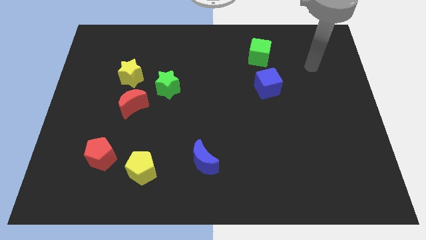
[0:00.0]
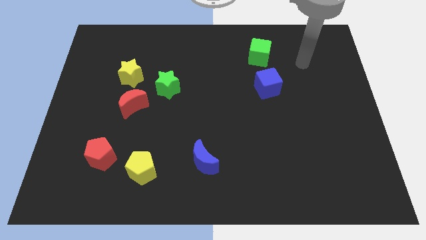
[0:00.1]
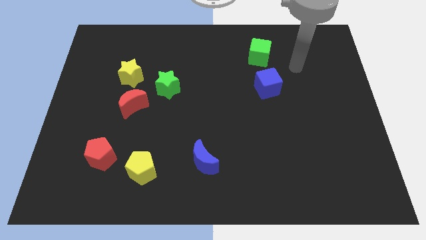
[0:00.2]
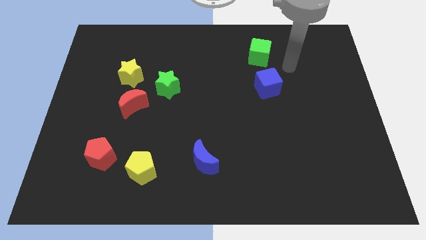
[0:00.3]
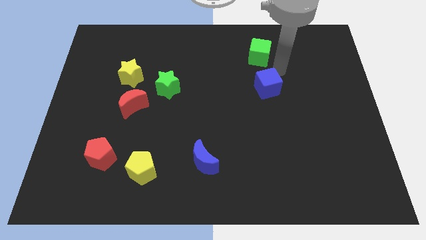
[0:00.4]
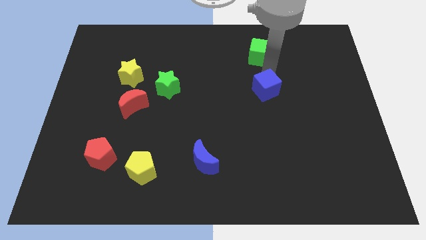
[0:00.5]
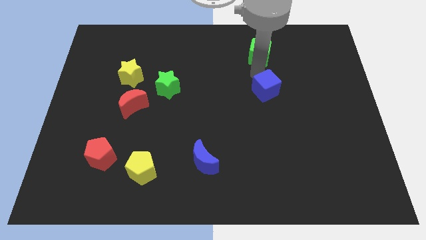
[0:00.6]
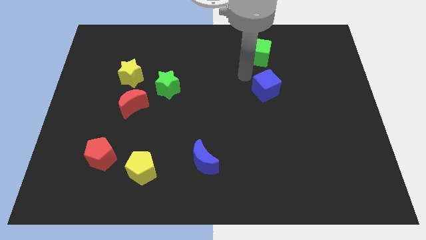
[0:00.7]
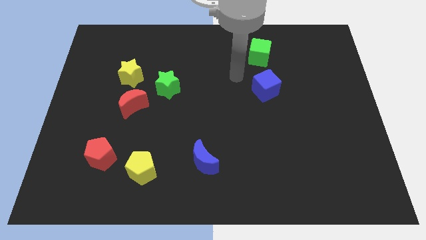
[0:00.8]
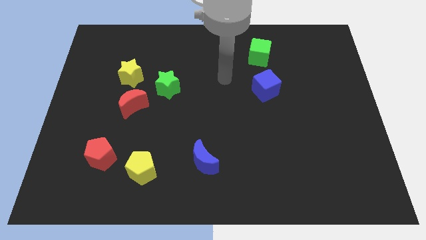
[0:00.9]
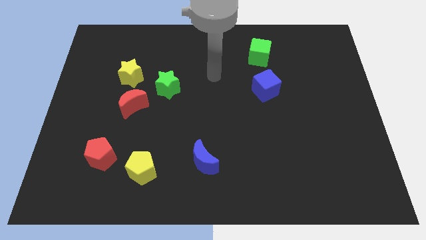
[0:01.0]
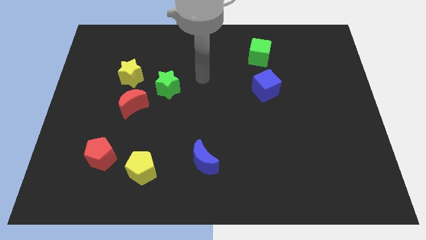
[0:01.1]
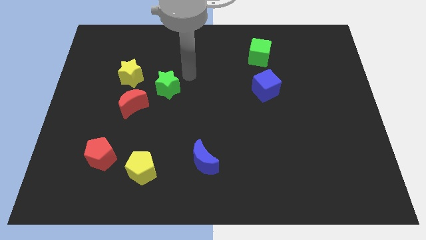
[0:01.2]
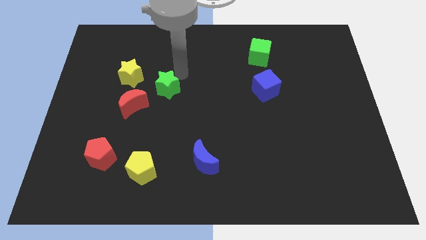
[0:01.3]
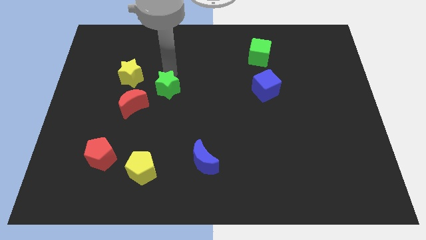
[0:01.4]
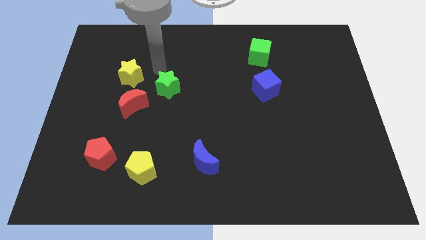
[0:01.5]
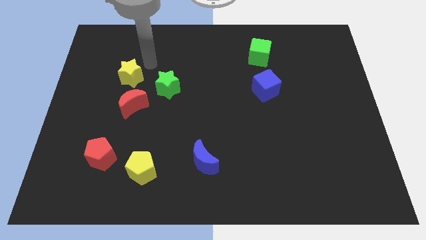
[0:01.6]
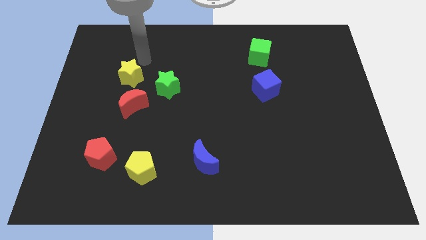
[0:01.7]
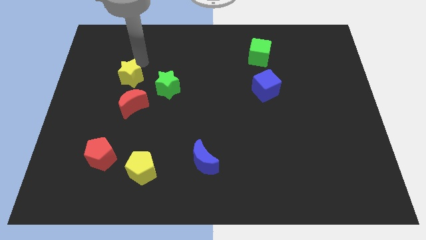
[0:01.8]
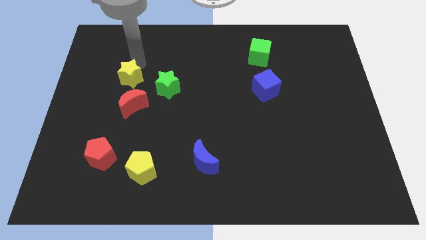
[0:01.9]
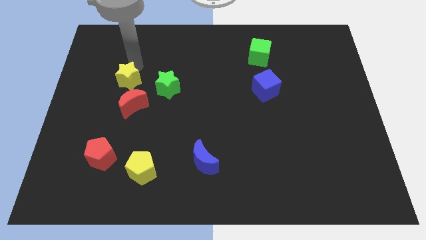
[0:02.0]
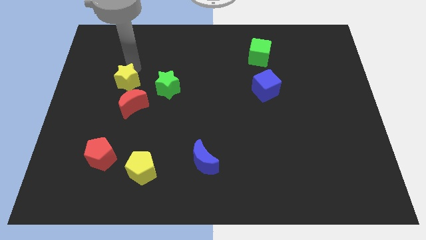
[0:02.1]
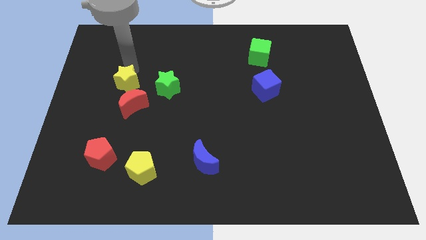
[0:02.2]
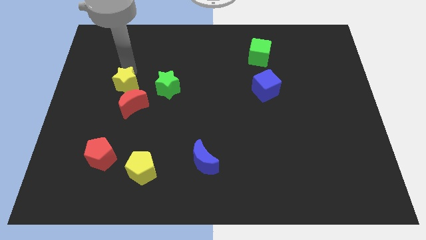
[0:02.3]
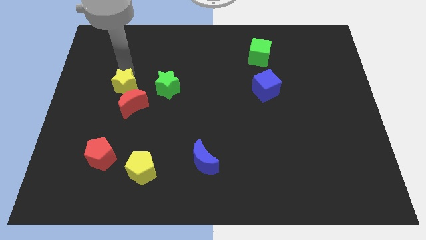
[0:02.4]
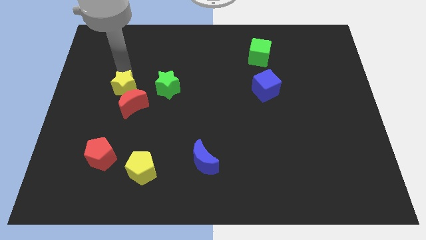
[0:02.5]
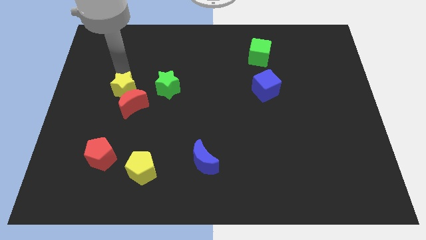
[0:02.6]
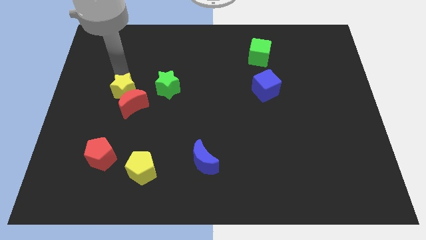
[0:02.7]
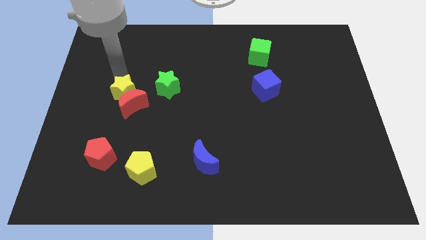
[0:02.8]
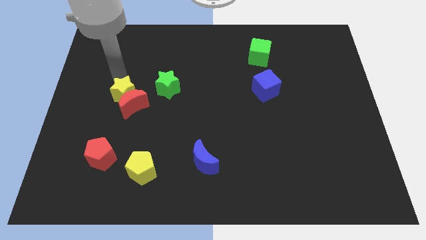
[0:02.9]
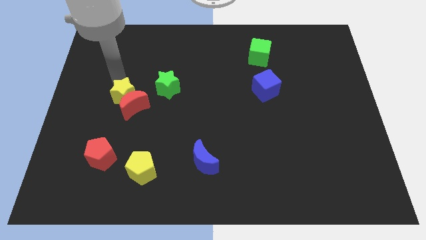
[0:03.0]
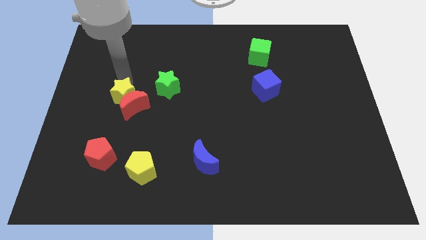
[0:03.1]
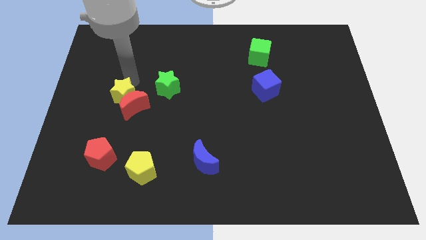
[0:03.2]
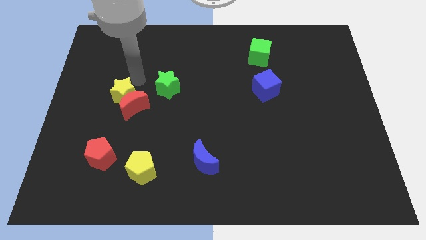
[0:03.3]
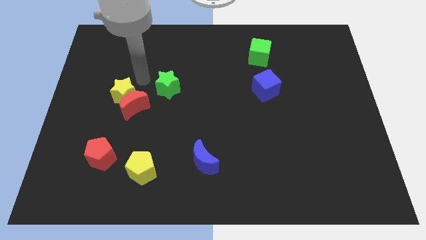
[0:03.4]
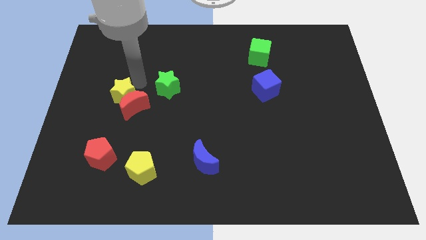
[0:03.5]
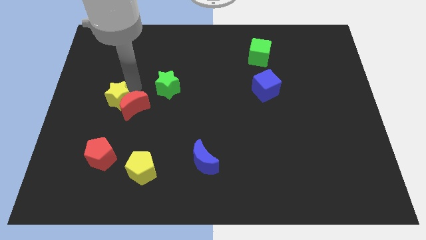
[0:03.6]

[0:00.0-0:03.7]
slightly slide the yellow star down

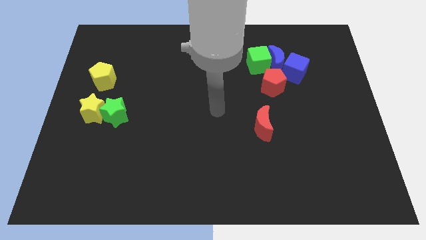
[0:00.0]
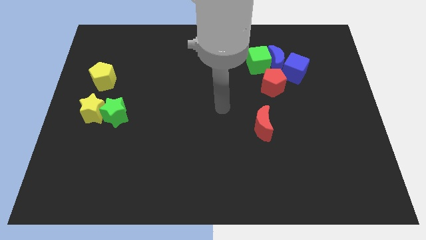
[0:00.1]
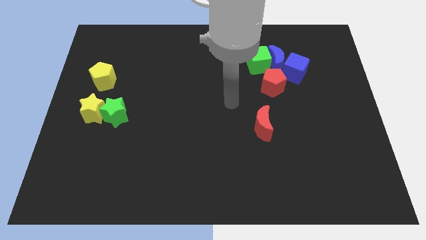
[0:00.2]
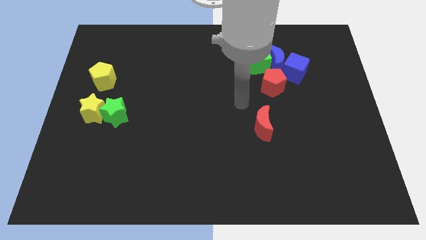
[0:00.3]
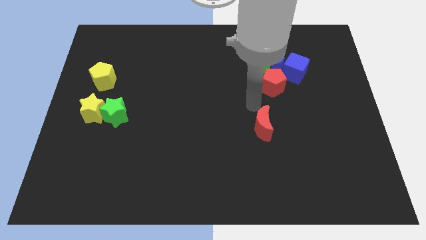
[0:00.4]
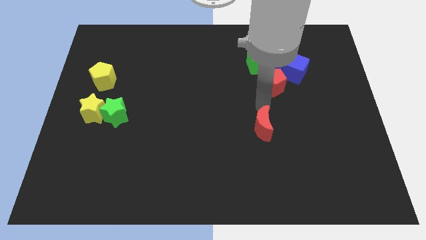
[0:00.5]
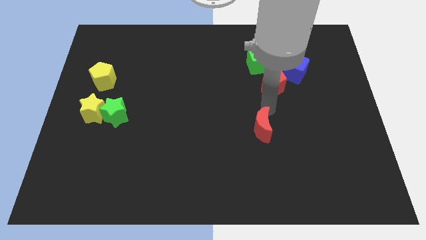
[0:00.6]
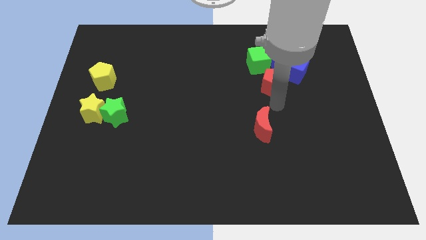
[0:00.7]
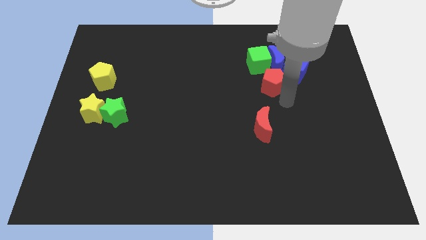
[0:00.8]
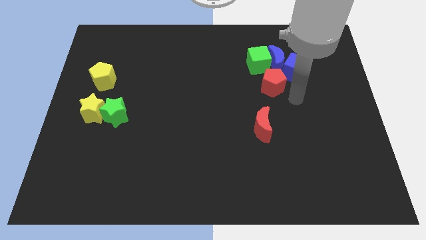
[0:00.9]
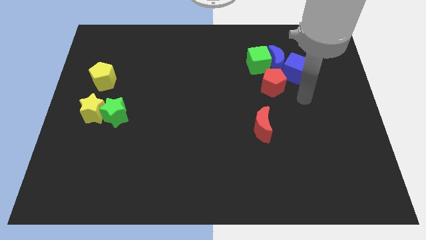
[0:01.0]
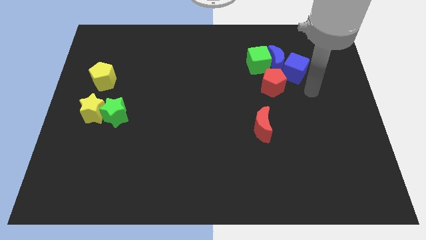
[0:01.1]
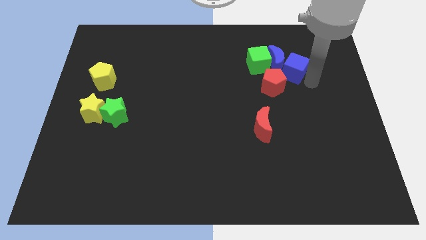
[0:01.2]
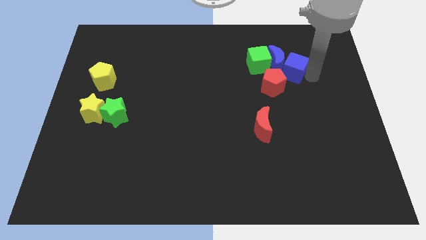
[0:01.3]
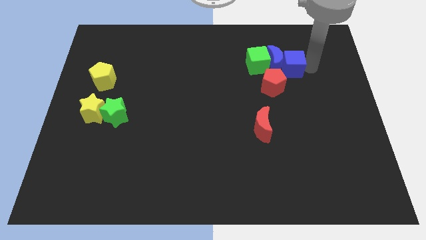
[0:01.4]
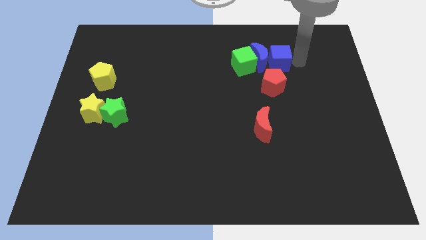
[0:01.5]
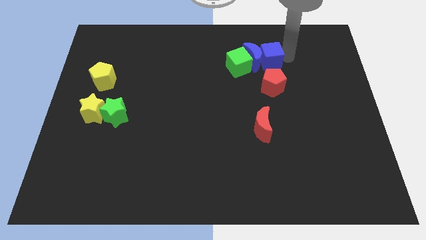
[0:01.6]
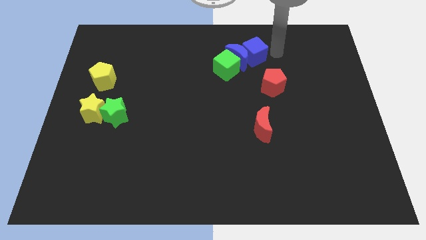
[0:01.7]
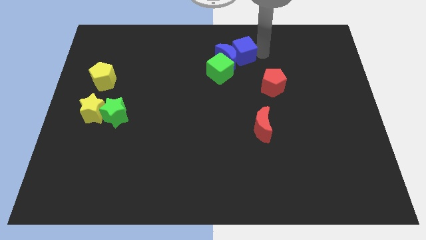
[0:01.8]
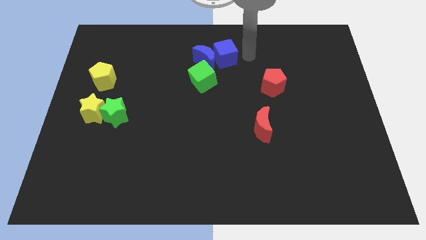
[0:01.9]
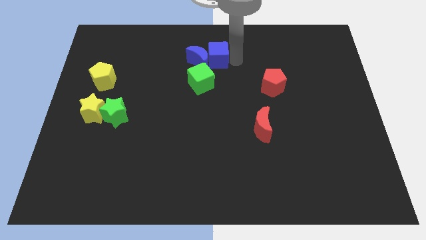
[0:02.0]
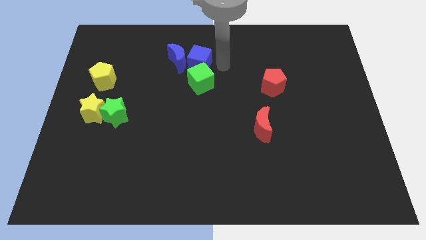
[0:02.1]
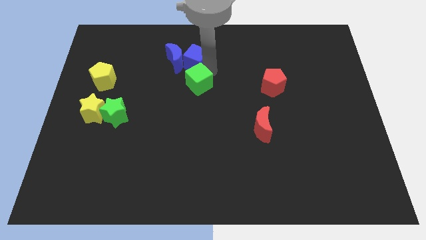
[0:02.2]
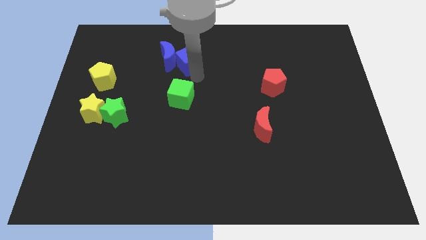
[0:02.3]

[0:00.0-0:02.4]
slide the green cube diagonally down and left

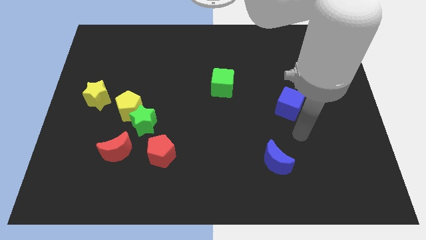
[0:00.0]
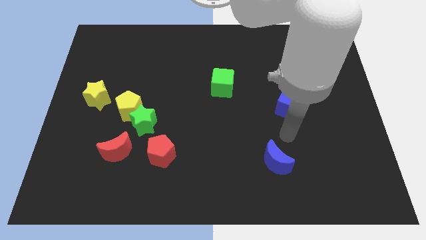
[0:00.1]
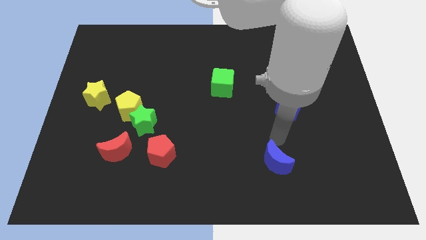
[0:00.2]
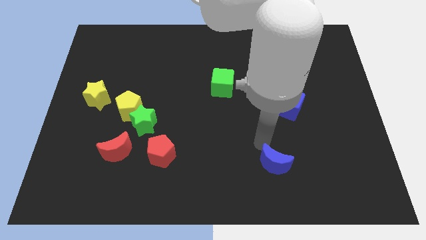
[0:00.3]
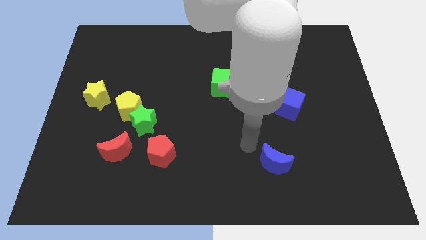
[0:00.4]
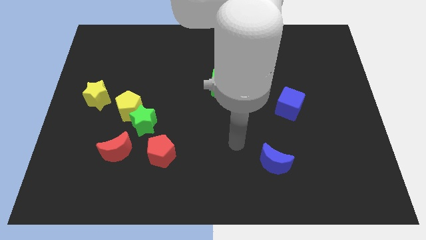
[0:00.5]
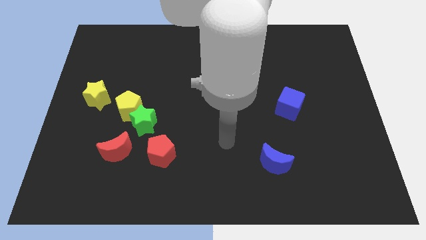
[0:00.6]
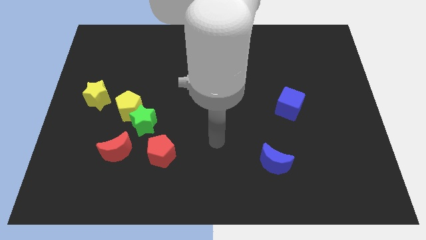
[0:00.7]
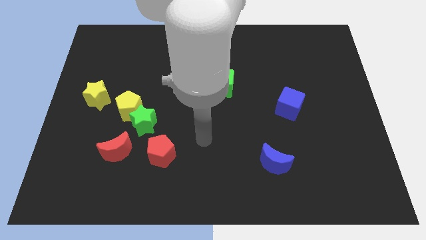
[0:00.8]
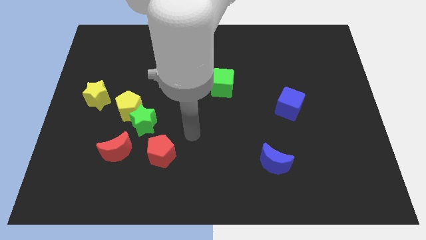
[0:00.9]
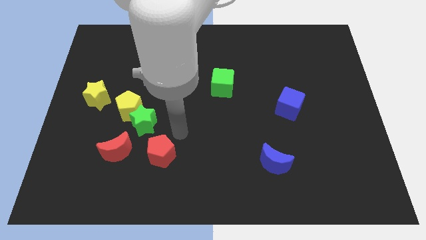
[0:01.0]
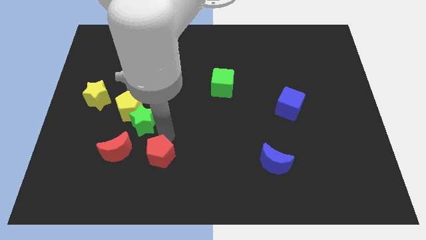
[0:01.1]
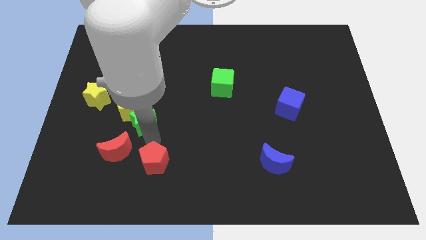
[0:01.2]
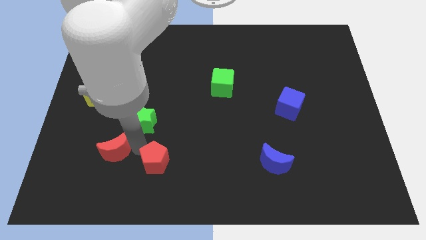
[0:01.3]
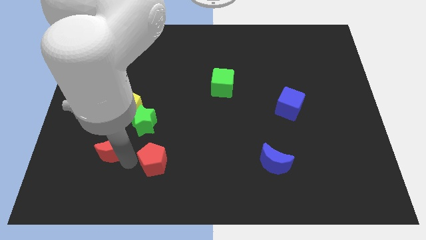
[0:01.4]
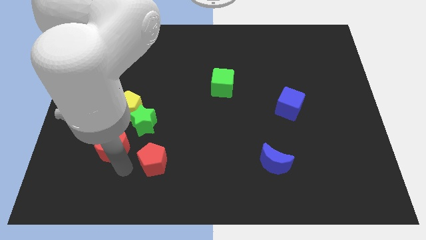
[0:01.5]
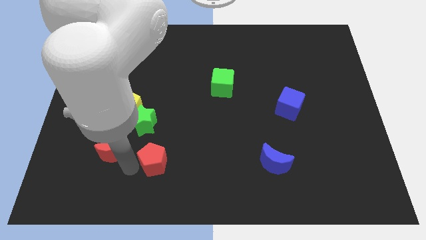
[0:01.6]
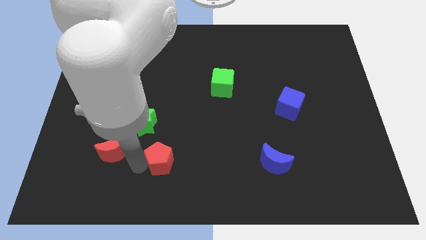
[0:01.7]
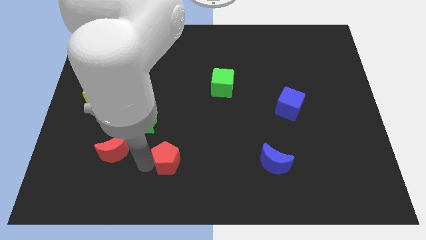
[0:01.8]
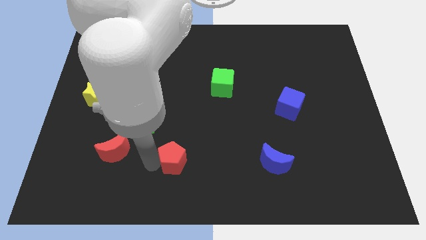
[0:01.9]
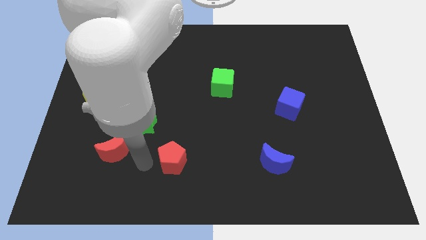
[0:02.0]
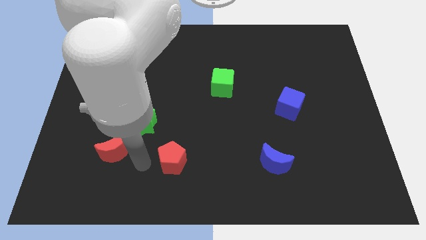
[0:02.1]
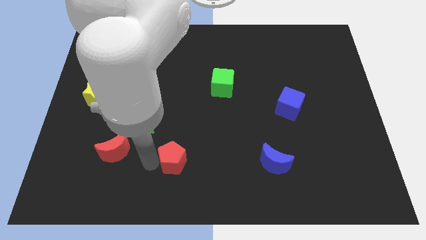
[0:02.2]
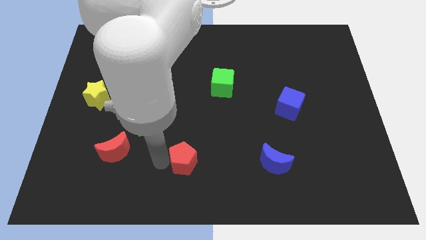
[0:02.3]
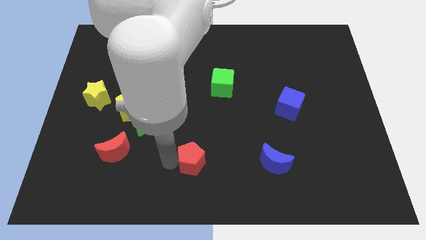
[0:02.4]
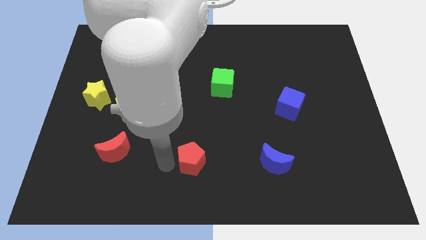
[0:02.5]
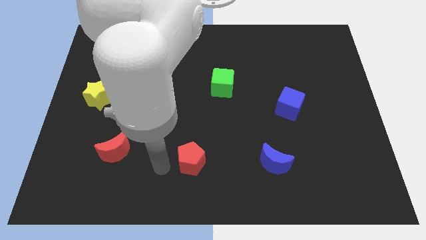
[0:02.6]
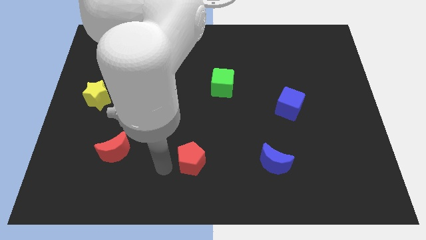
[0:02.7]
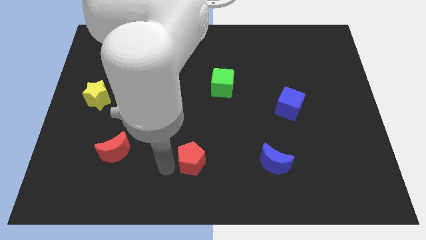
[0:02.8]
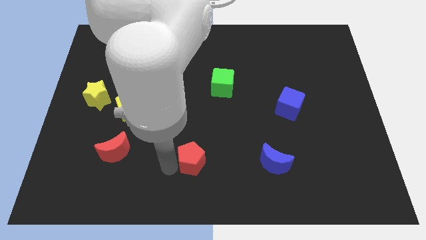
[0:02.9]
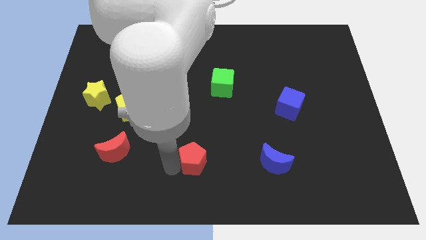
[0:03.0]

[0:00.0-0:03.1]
push the red pentagon a little to the right
